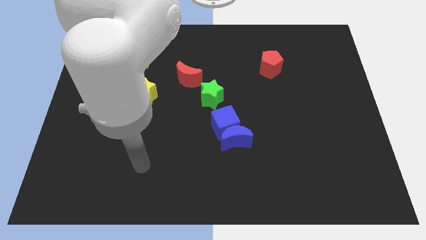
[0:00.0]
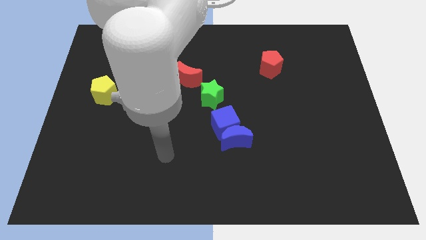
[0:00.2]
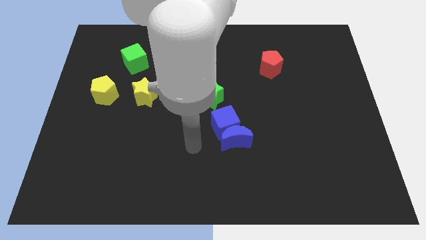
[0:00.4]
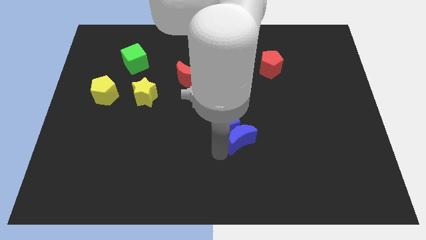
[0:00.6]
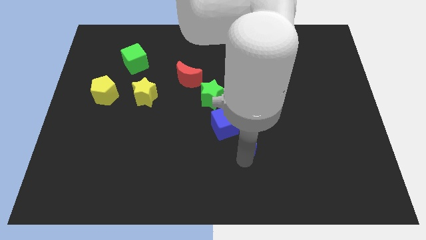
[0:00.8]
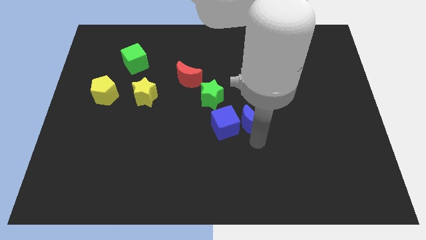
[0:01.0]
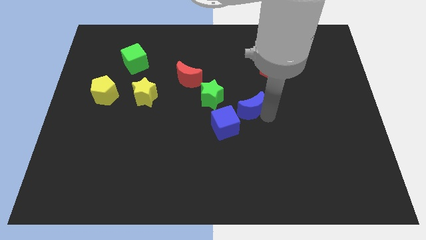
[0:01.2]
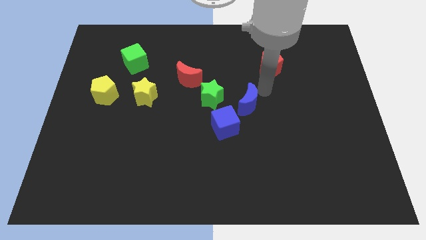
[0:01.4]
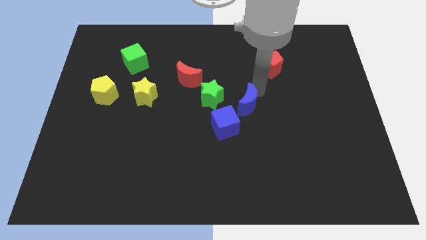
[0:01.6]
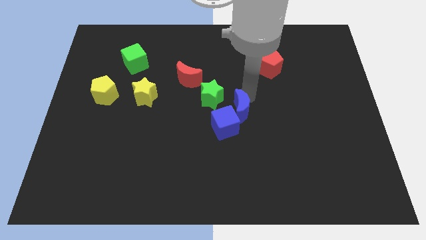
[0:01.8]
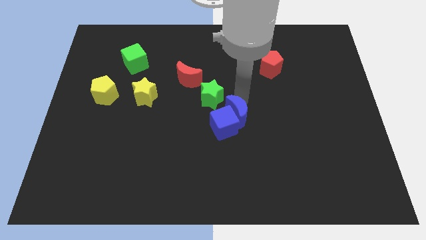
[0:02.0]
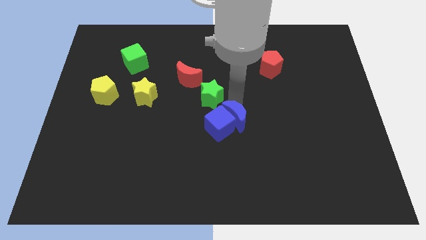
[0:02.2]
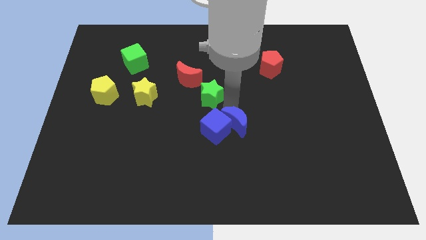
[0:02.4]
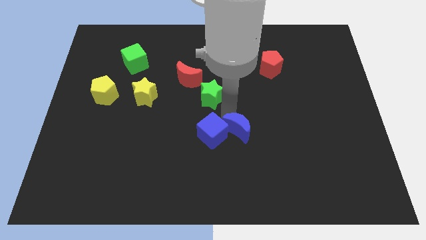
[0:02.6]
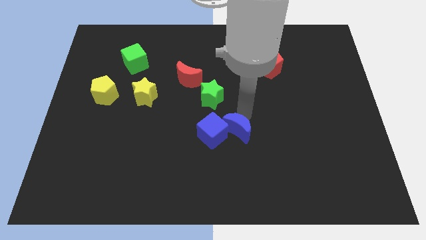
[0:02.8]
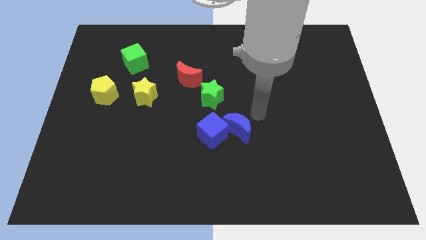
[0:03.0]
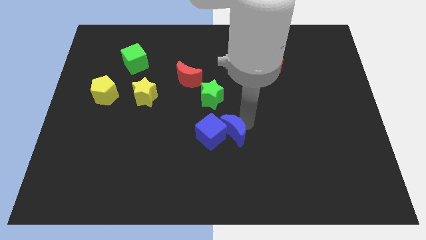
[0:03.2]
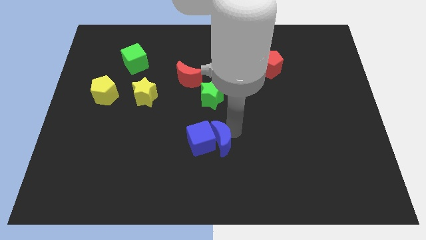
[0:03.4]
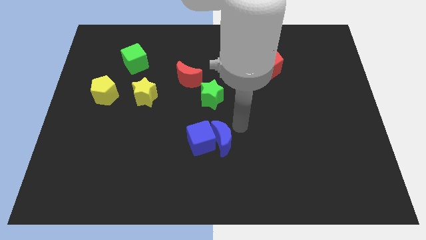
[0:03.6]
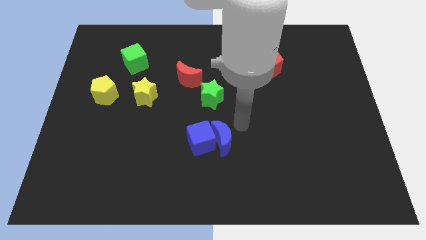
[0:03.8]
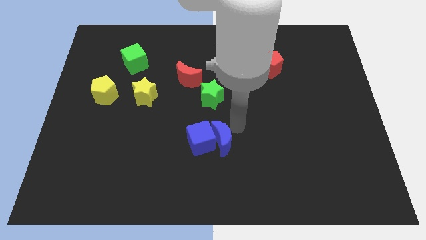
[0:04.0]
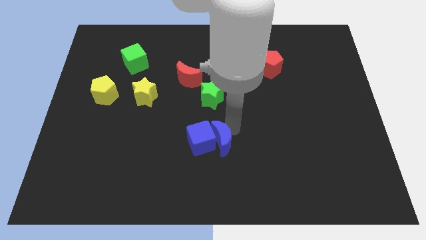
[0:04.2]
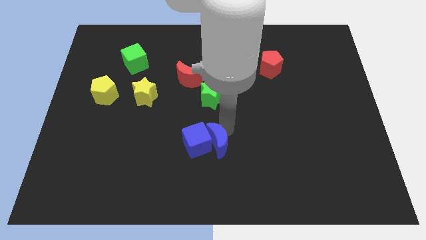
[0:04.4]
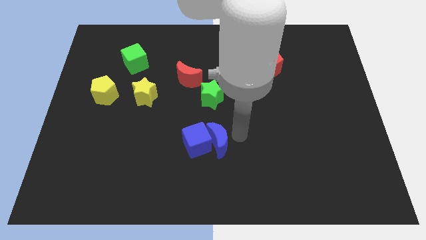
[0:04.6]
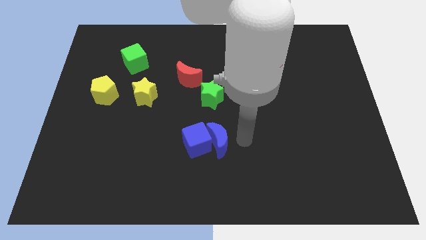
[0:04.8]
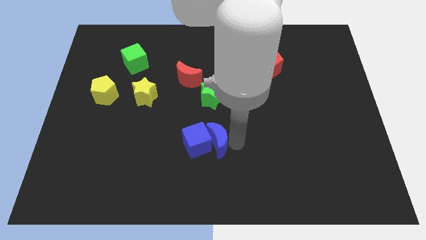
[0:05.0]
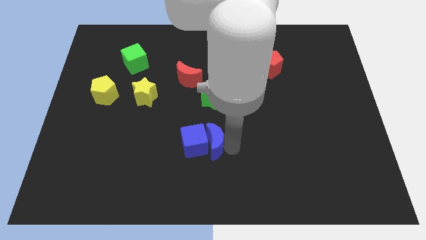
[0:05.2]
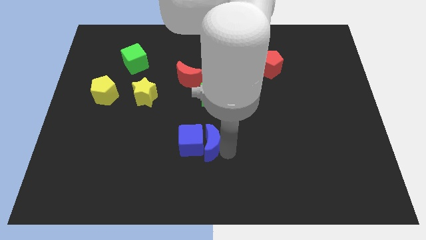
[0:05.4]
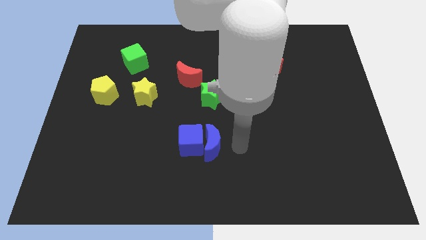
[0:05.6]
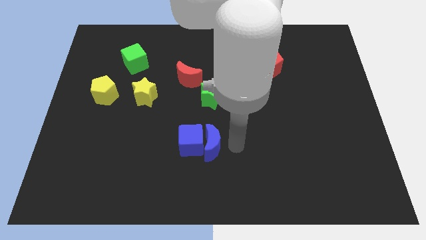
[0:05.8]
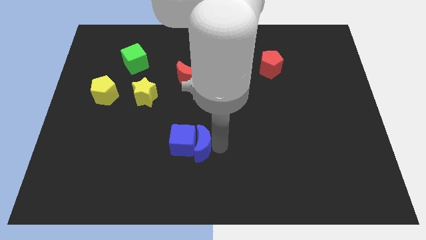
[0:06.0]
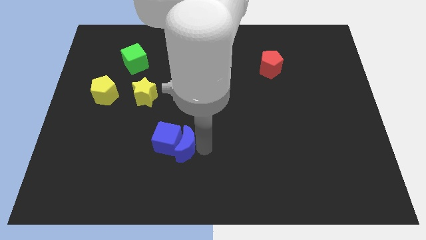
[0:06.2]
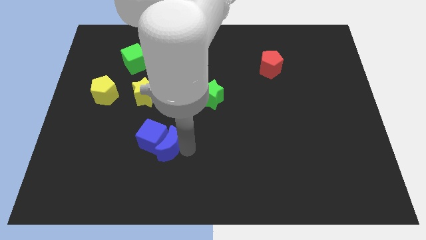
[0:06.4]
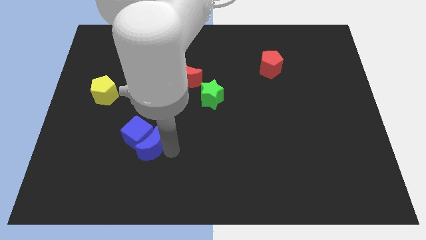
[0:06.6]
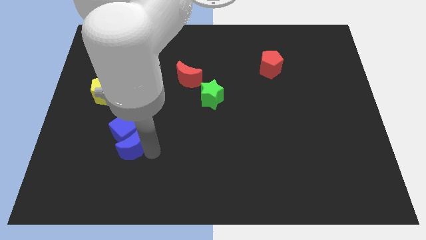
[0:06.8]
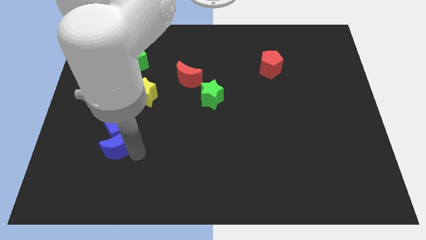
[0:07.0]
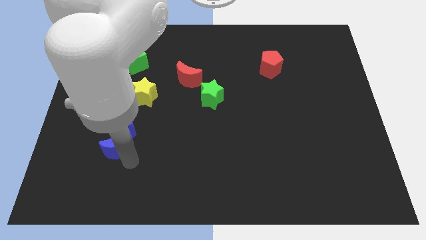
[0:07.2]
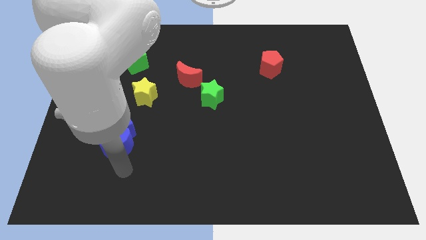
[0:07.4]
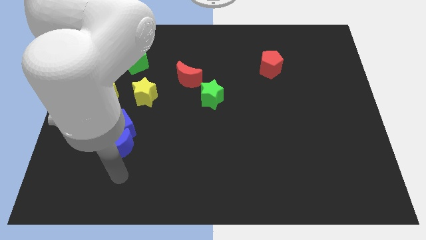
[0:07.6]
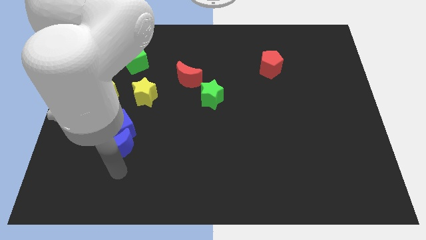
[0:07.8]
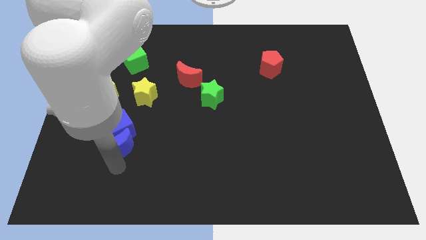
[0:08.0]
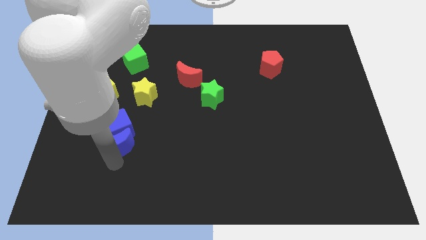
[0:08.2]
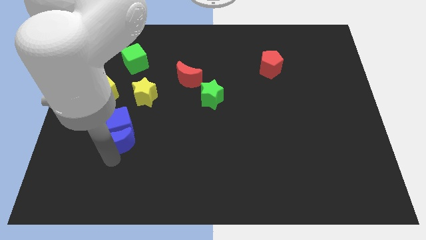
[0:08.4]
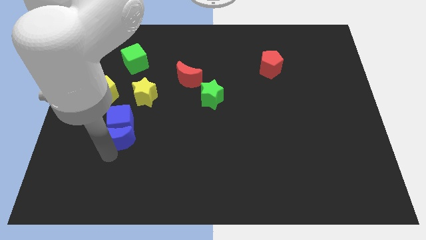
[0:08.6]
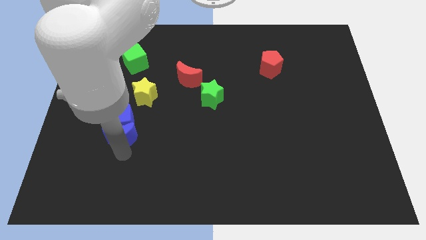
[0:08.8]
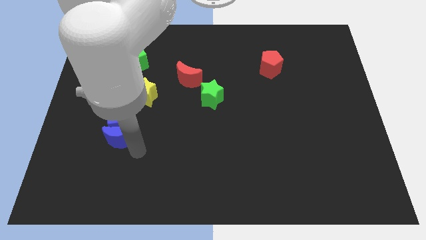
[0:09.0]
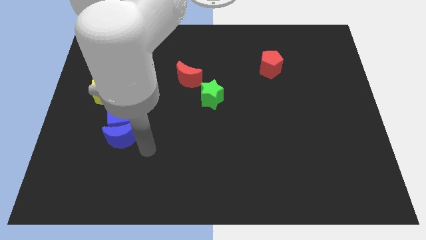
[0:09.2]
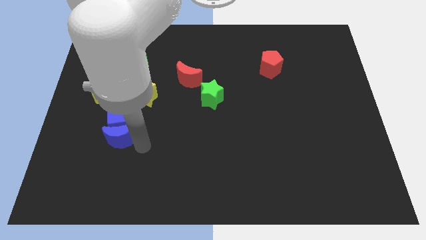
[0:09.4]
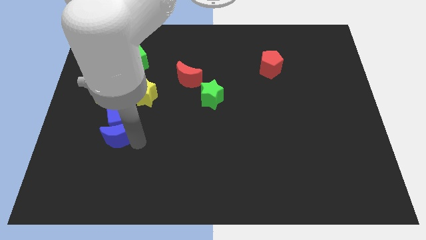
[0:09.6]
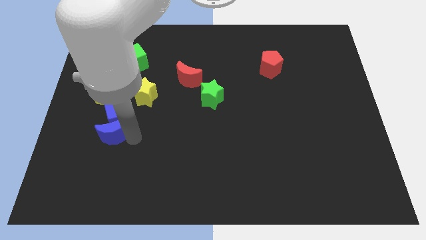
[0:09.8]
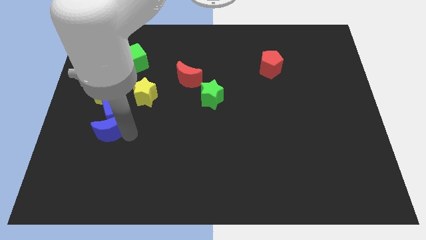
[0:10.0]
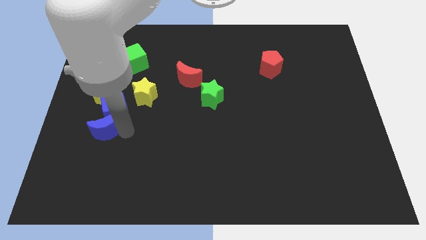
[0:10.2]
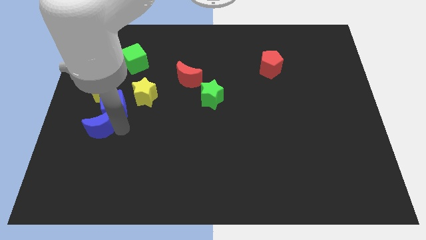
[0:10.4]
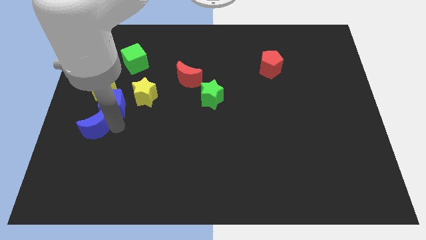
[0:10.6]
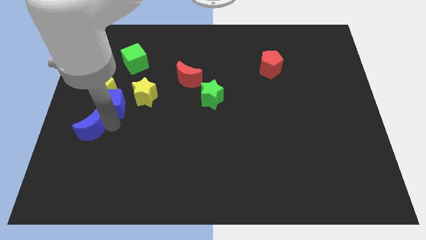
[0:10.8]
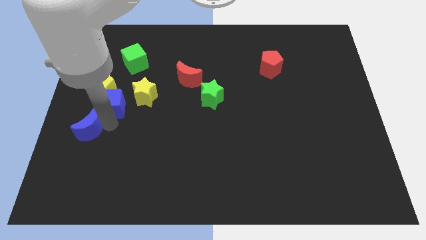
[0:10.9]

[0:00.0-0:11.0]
put the blue moon to the left side

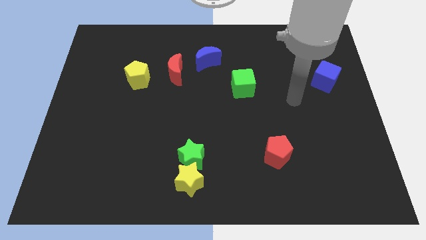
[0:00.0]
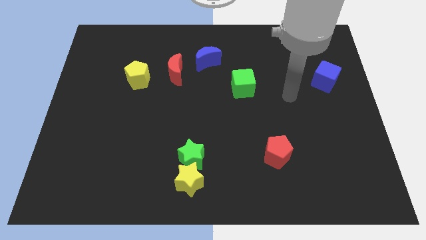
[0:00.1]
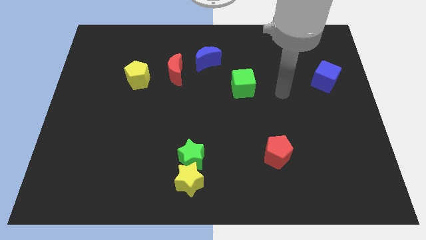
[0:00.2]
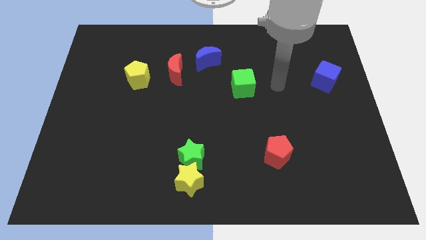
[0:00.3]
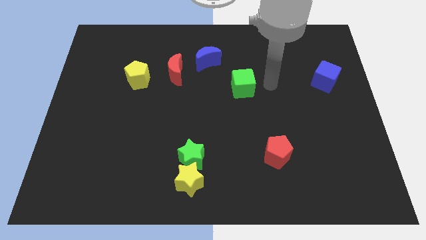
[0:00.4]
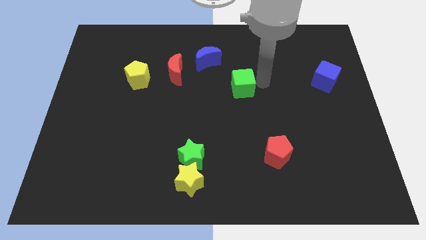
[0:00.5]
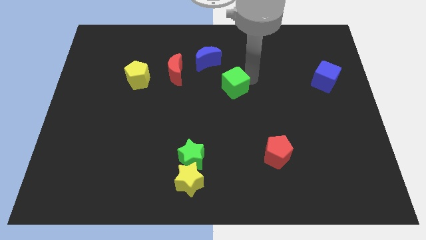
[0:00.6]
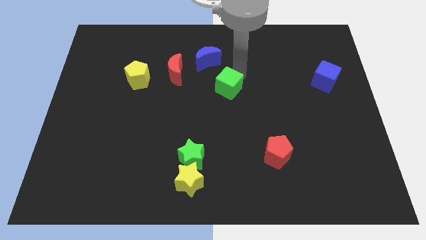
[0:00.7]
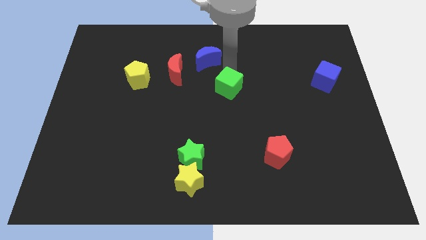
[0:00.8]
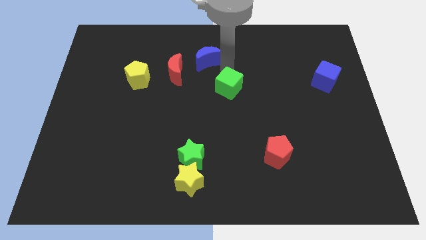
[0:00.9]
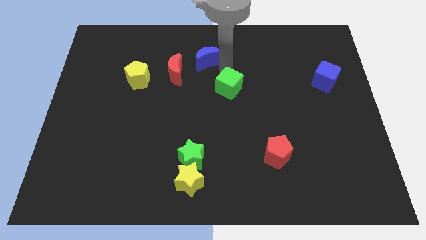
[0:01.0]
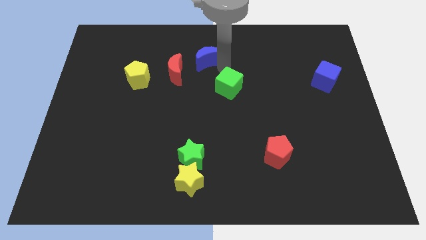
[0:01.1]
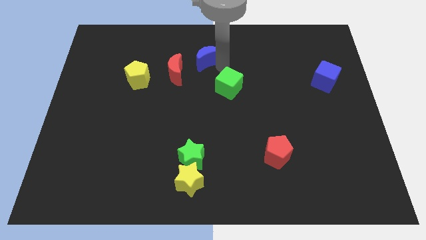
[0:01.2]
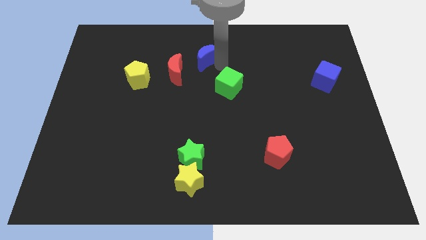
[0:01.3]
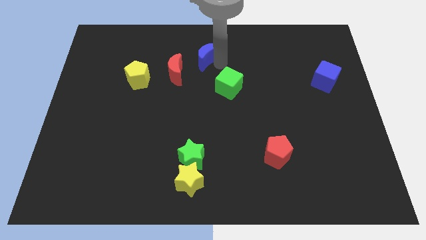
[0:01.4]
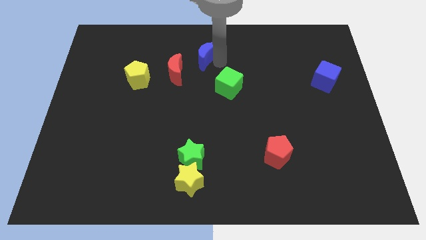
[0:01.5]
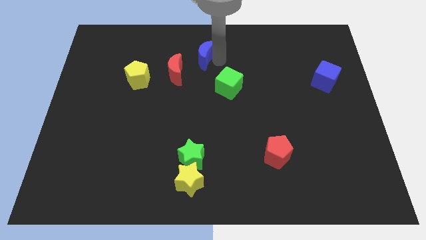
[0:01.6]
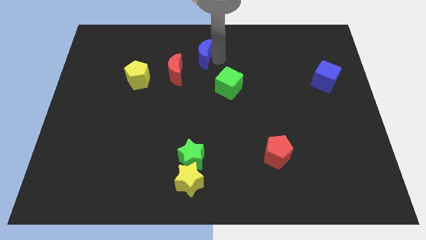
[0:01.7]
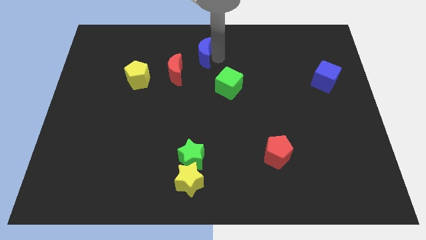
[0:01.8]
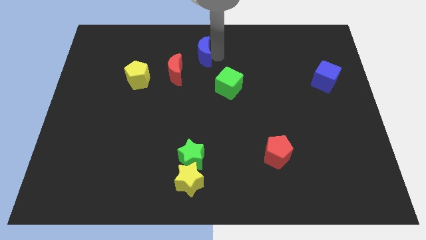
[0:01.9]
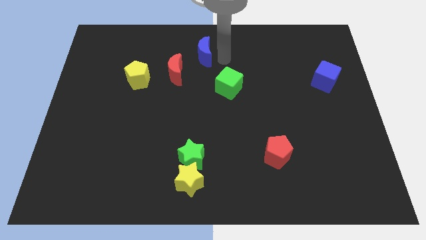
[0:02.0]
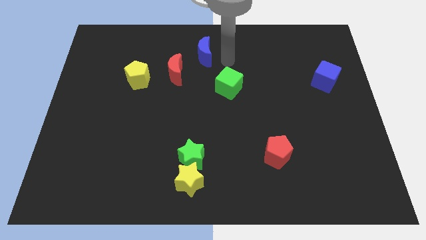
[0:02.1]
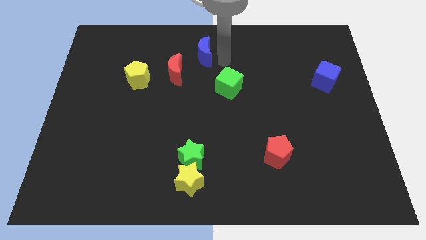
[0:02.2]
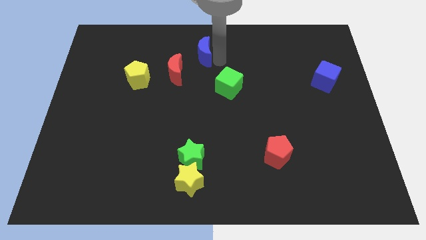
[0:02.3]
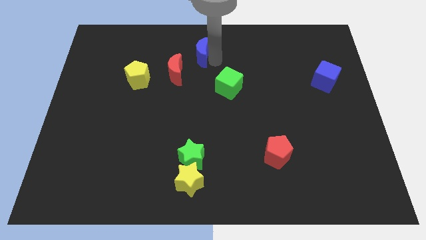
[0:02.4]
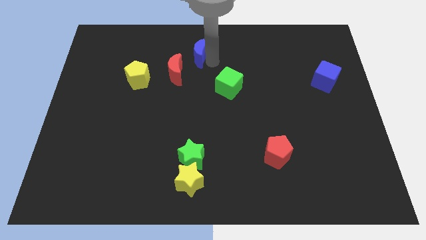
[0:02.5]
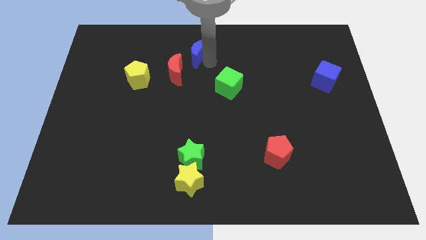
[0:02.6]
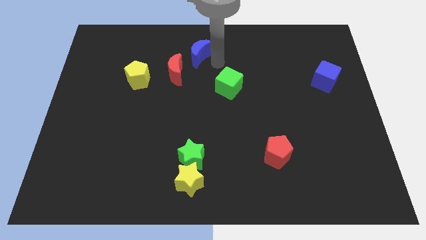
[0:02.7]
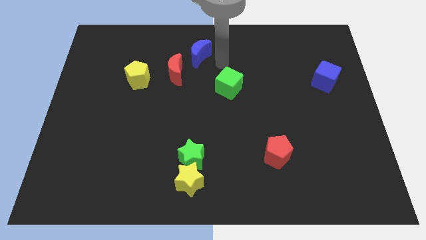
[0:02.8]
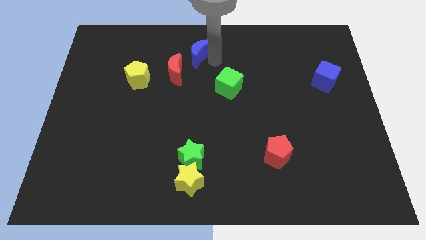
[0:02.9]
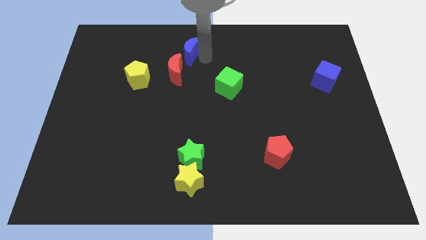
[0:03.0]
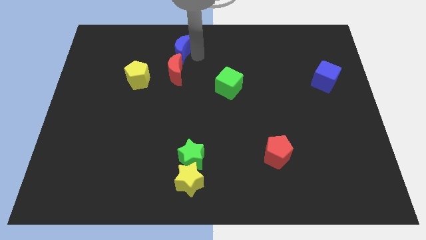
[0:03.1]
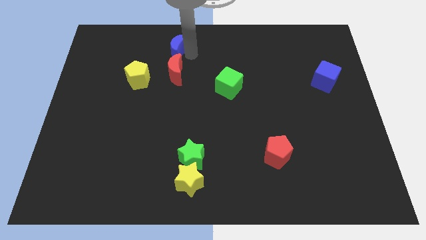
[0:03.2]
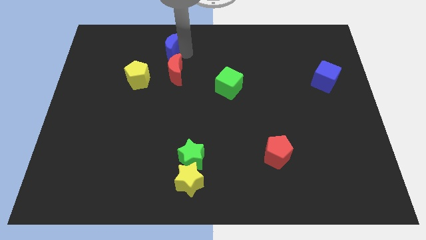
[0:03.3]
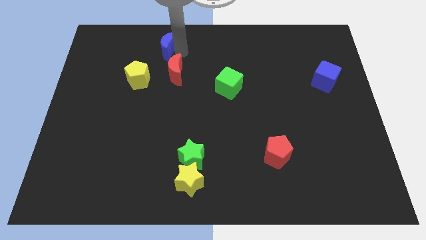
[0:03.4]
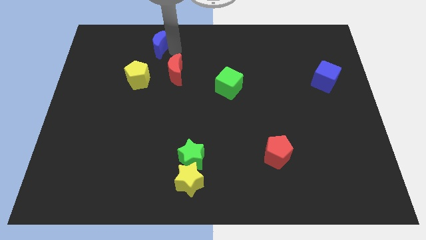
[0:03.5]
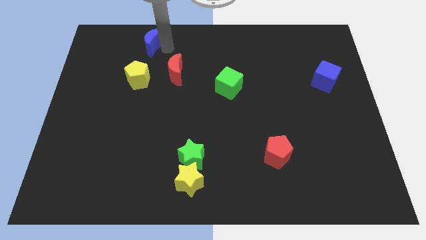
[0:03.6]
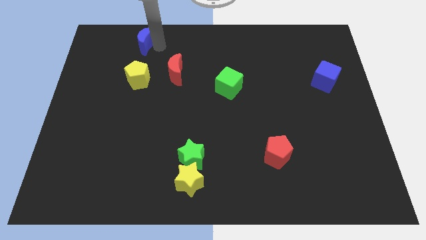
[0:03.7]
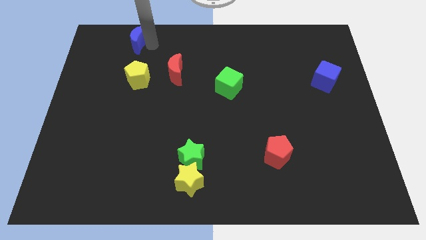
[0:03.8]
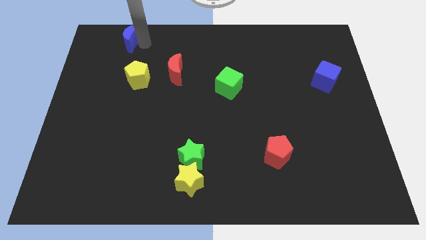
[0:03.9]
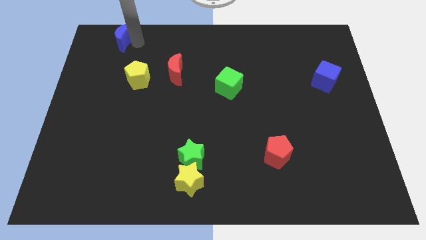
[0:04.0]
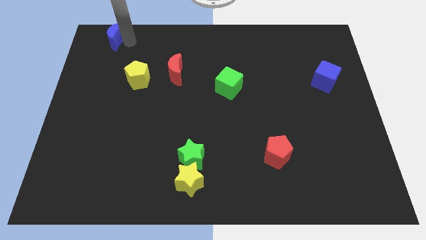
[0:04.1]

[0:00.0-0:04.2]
slide the blue moon to the top left
